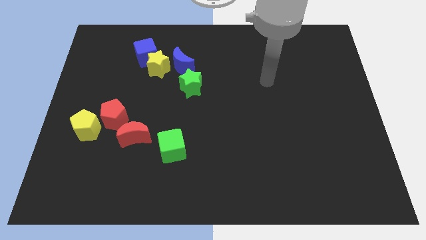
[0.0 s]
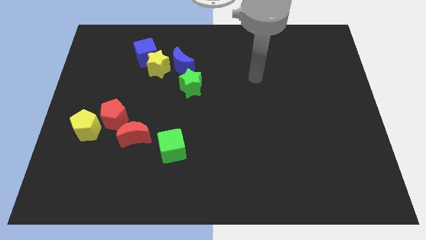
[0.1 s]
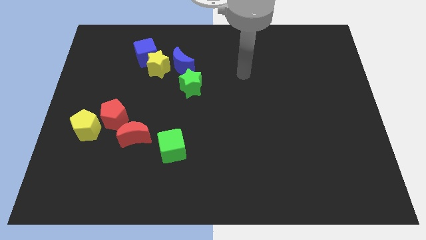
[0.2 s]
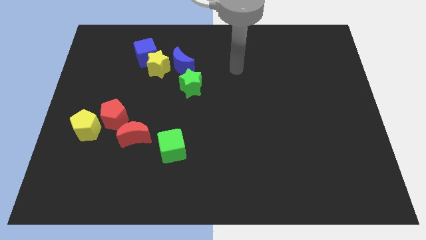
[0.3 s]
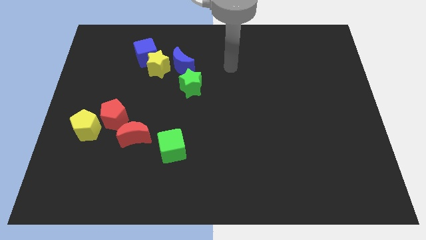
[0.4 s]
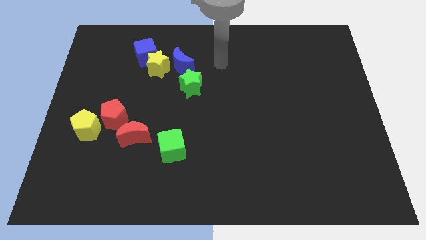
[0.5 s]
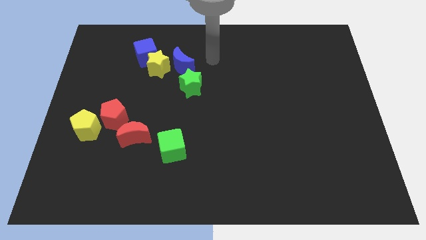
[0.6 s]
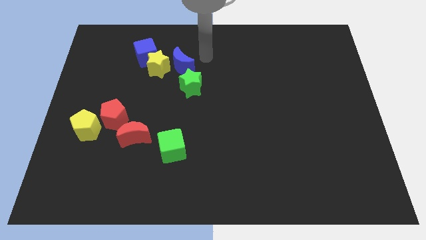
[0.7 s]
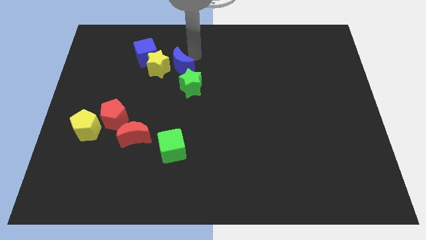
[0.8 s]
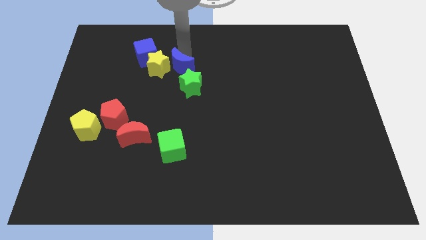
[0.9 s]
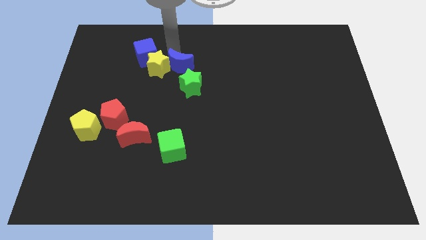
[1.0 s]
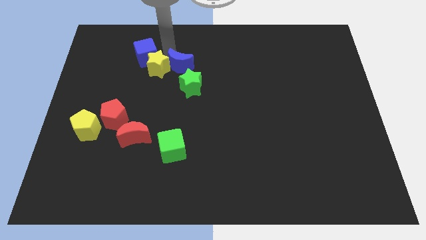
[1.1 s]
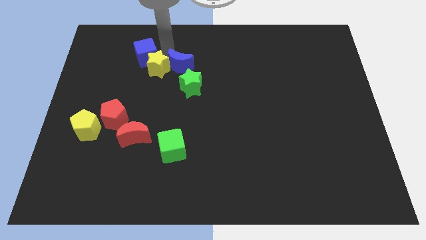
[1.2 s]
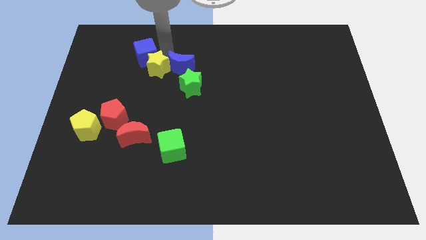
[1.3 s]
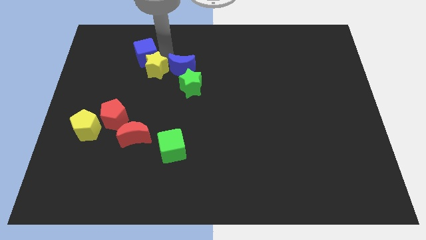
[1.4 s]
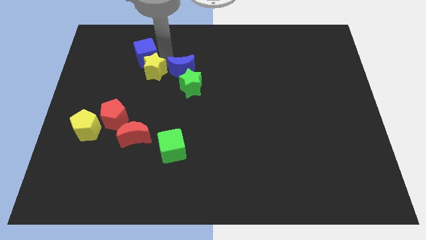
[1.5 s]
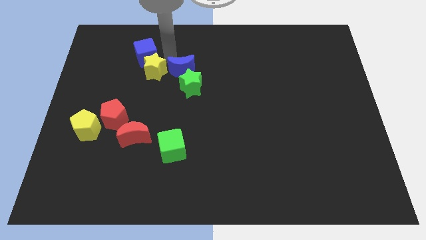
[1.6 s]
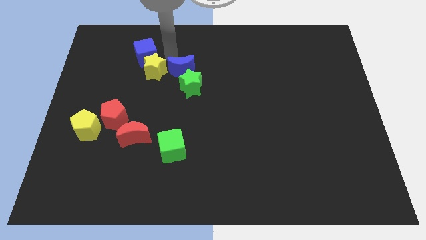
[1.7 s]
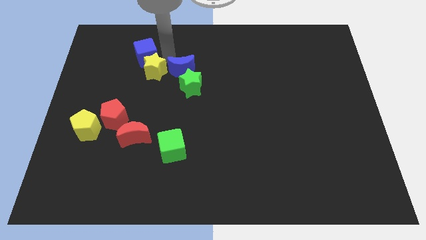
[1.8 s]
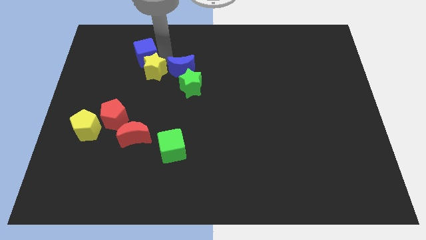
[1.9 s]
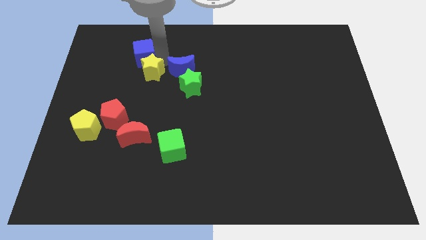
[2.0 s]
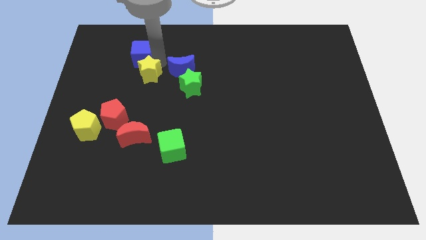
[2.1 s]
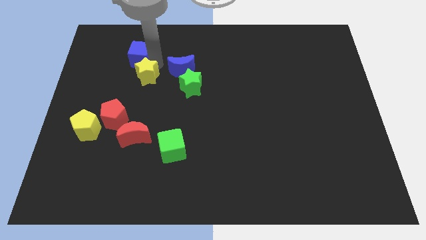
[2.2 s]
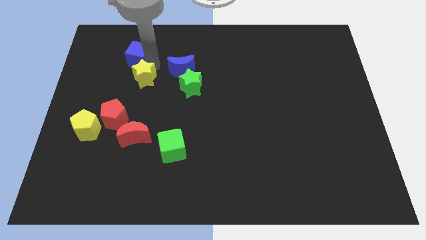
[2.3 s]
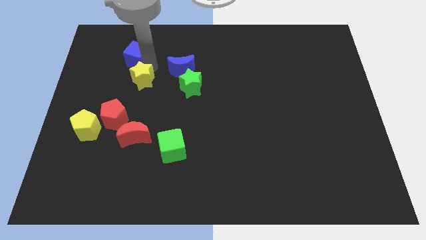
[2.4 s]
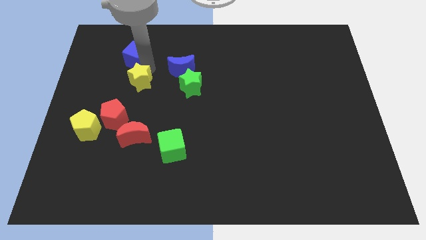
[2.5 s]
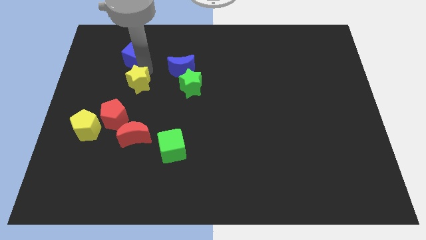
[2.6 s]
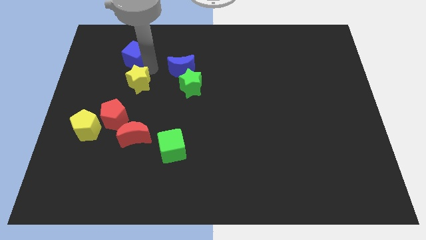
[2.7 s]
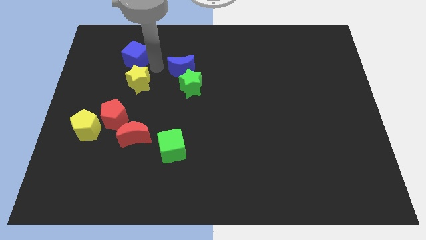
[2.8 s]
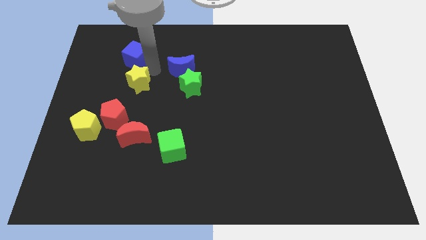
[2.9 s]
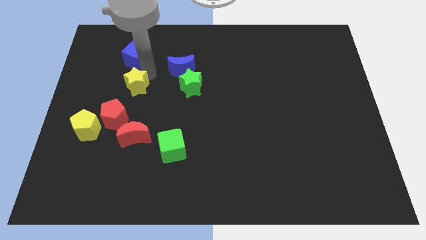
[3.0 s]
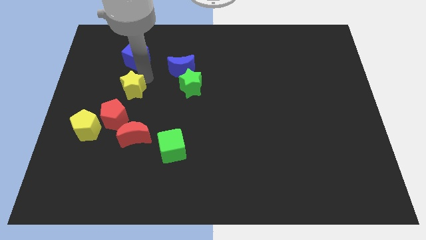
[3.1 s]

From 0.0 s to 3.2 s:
pull the yellow star apart from the blue cube and blue moon

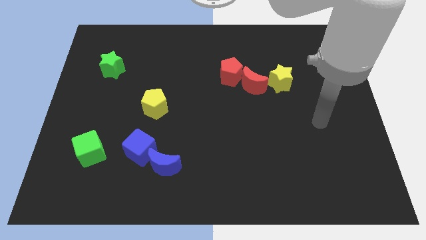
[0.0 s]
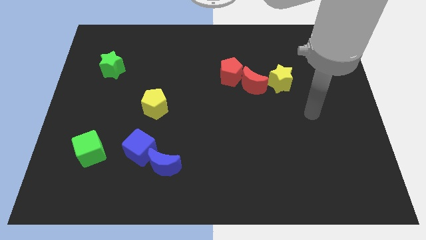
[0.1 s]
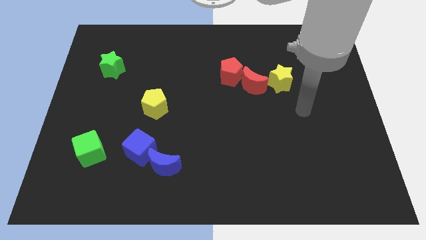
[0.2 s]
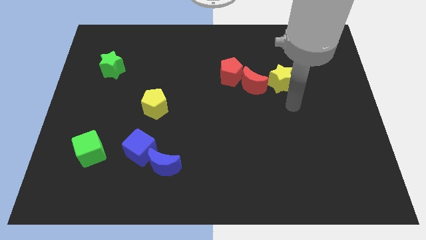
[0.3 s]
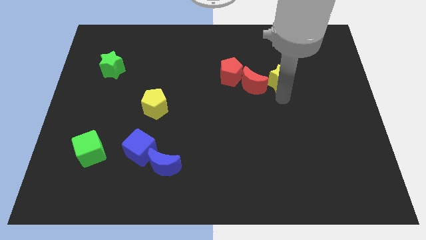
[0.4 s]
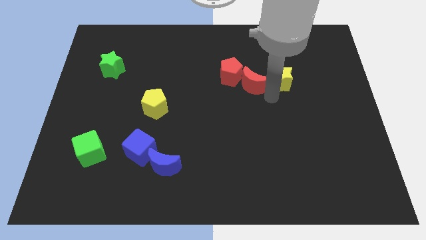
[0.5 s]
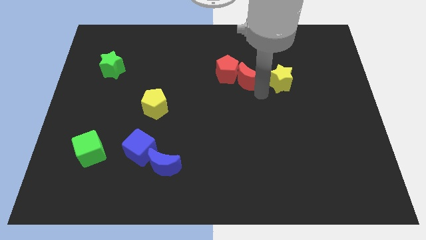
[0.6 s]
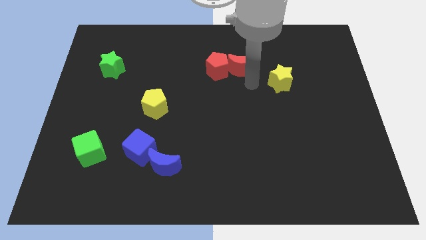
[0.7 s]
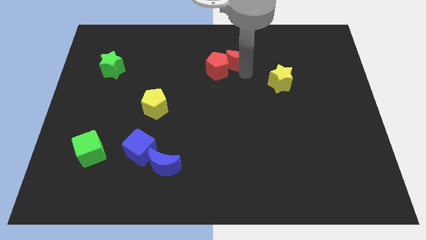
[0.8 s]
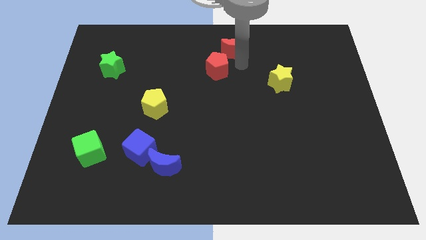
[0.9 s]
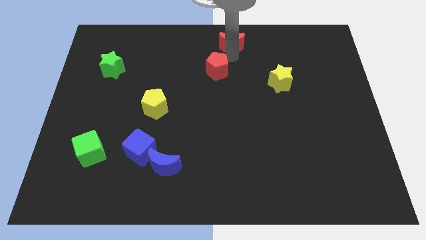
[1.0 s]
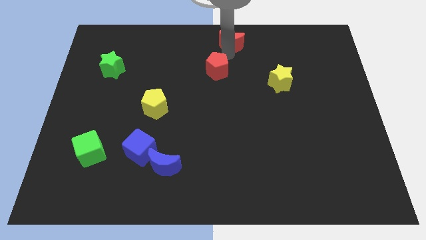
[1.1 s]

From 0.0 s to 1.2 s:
move the red pentagon away from the red moon

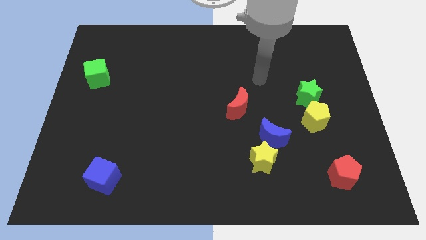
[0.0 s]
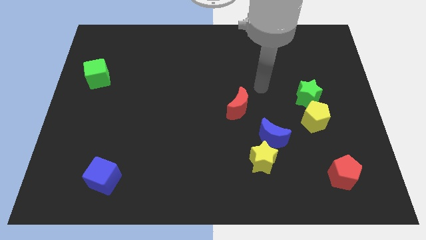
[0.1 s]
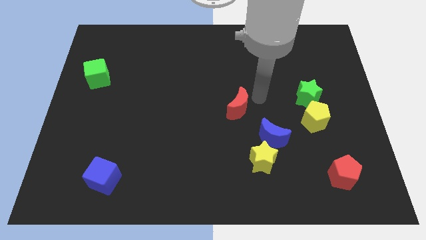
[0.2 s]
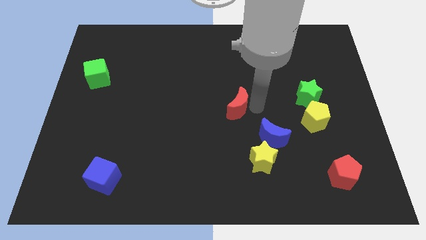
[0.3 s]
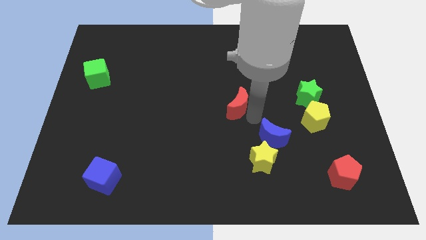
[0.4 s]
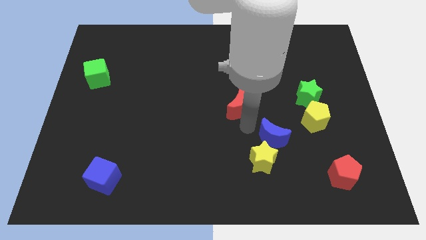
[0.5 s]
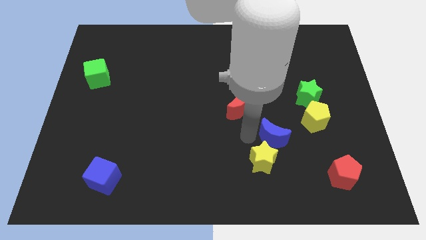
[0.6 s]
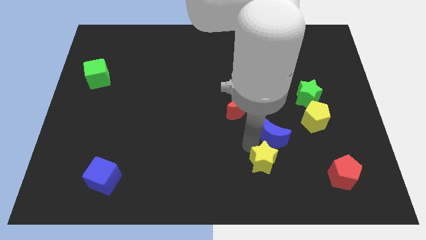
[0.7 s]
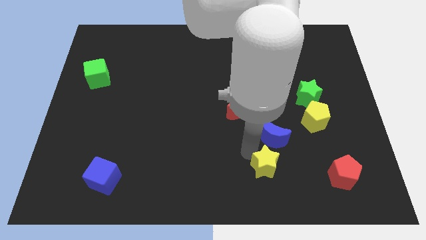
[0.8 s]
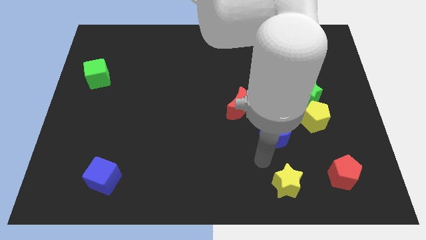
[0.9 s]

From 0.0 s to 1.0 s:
separate the blue moon from the yellow star

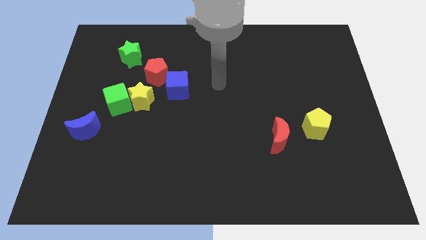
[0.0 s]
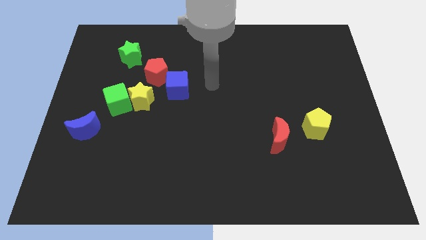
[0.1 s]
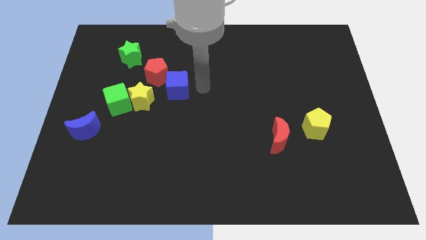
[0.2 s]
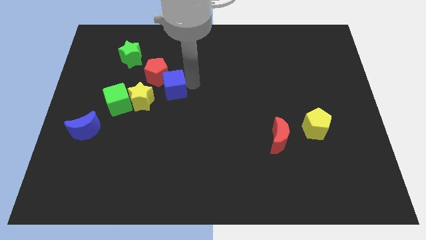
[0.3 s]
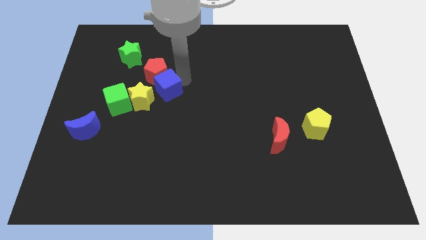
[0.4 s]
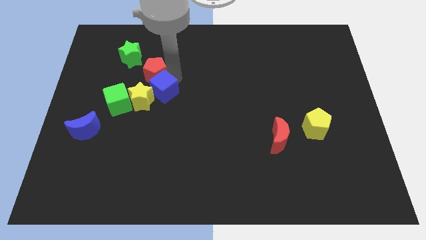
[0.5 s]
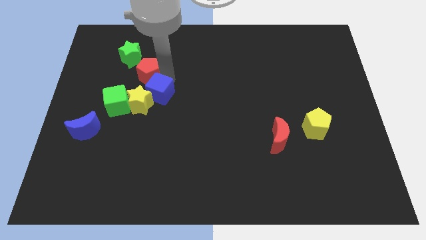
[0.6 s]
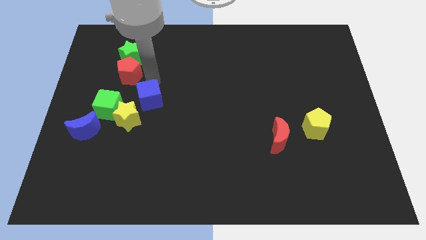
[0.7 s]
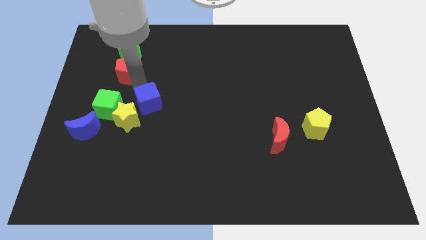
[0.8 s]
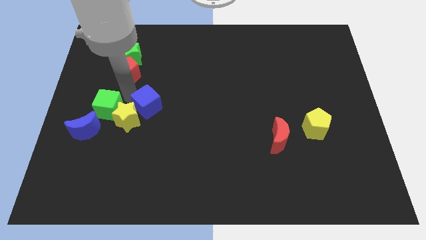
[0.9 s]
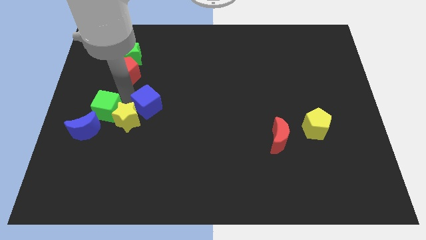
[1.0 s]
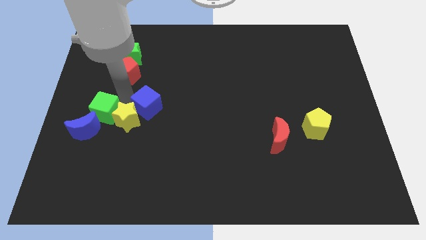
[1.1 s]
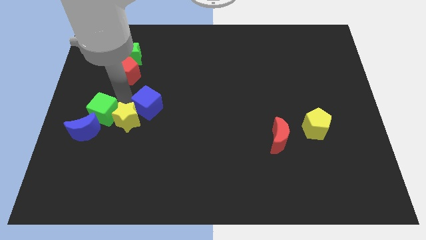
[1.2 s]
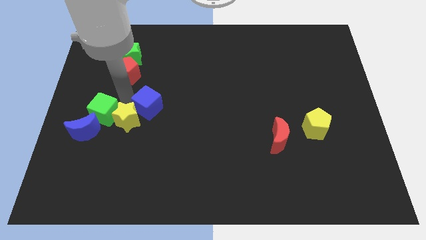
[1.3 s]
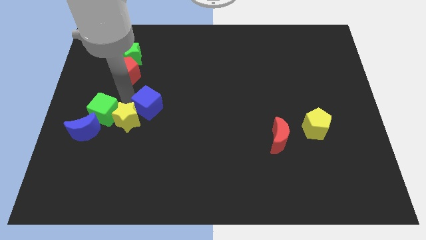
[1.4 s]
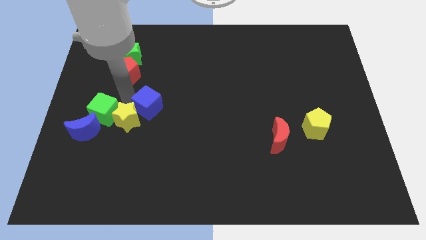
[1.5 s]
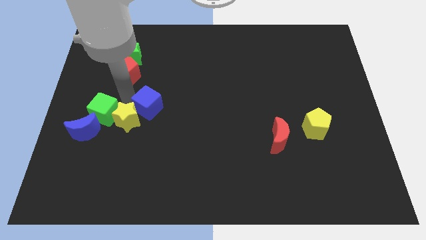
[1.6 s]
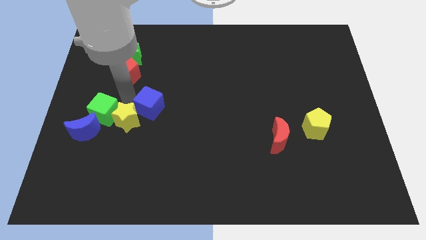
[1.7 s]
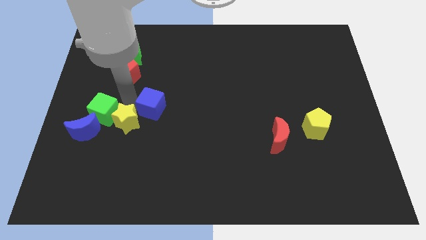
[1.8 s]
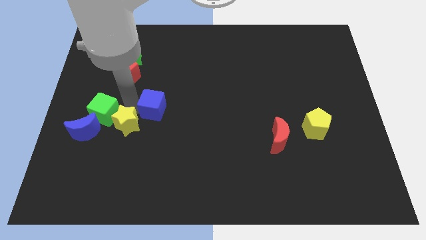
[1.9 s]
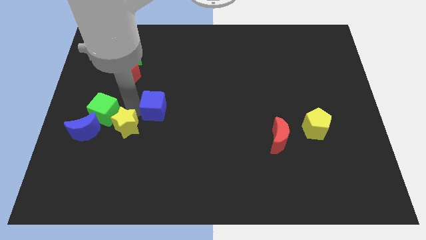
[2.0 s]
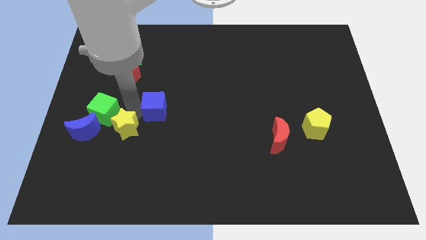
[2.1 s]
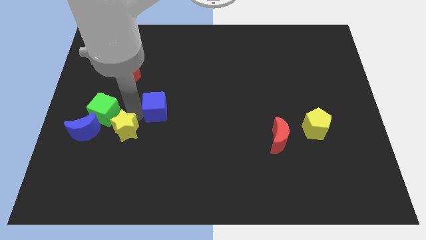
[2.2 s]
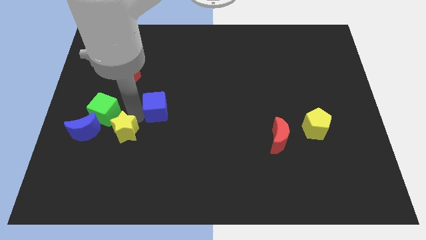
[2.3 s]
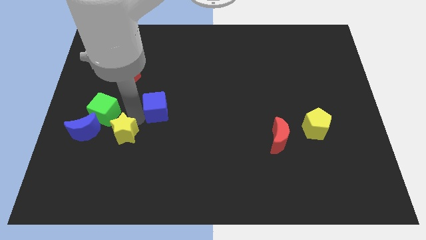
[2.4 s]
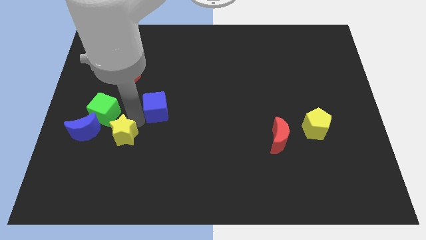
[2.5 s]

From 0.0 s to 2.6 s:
separate the yellow star from the clump

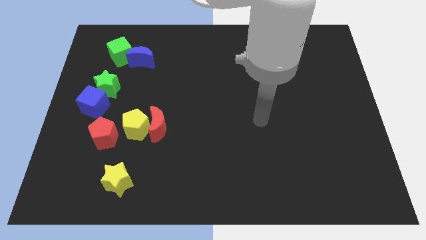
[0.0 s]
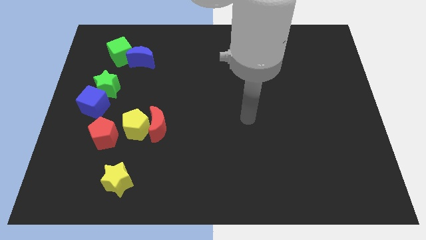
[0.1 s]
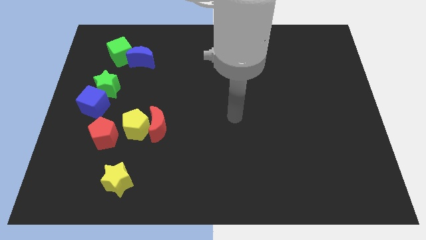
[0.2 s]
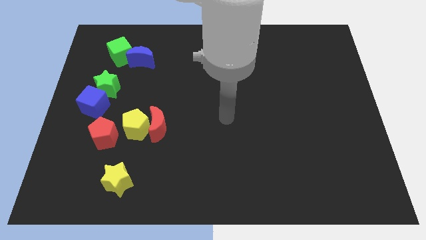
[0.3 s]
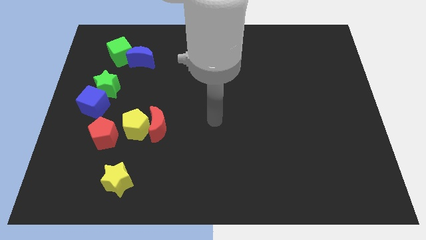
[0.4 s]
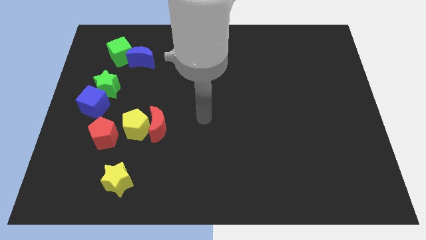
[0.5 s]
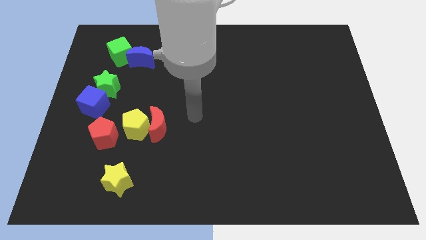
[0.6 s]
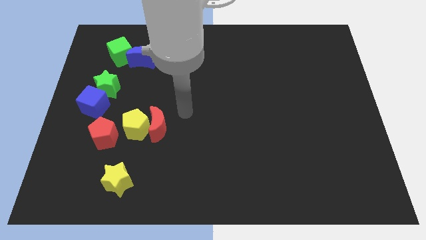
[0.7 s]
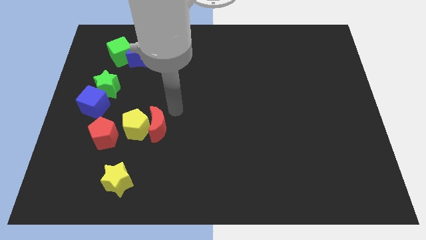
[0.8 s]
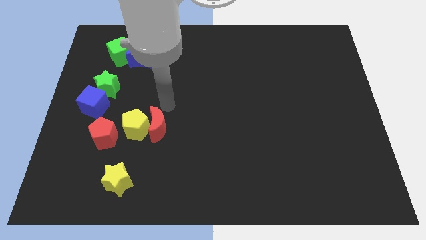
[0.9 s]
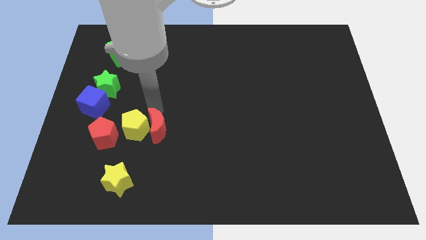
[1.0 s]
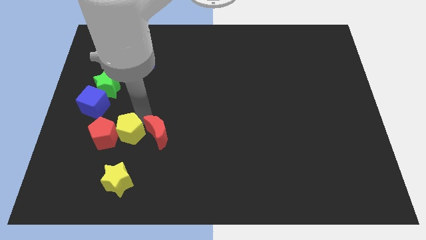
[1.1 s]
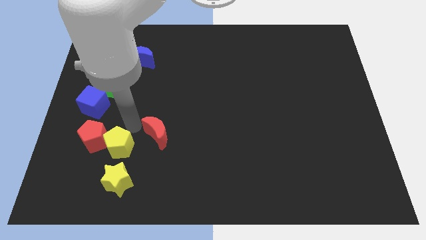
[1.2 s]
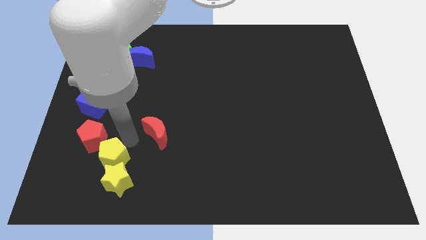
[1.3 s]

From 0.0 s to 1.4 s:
move the red moon away from the yellow pentagon
